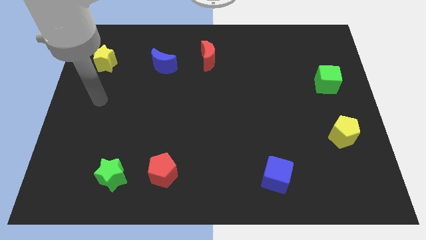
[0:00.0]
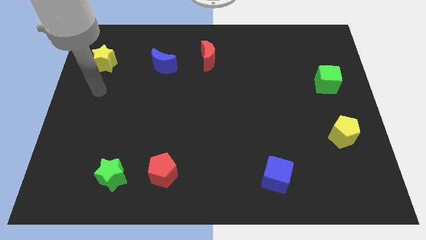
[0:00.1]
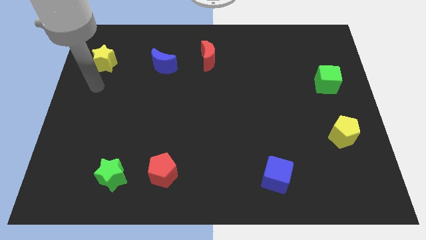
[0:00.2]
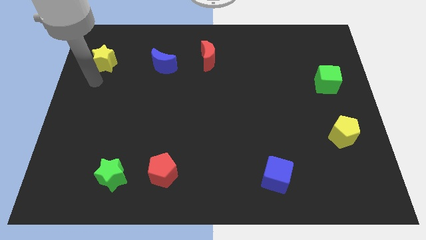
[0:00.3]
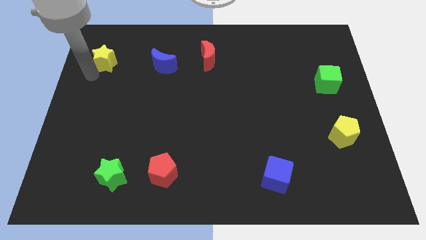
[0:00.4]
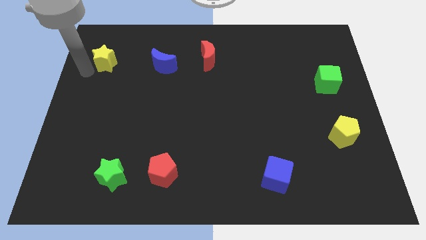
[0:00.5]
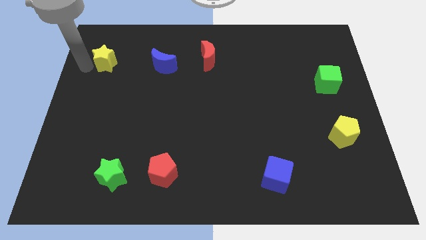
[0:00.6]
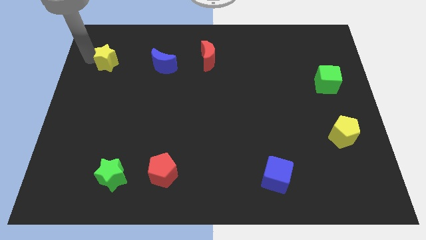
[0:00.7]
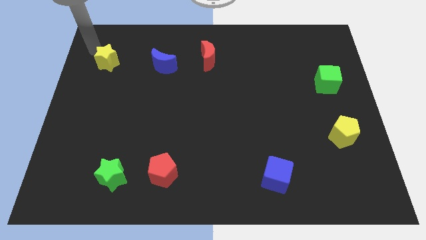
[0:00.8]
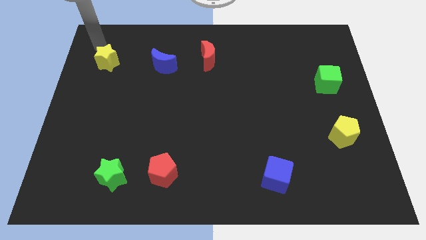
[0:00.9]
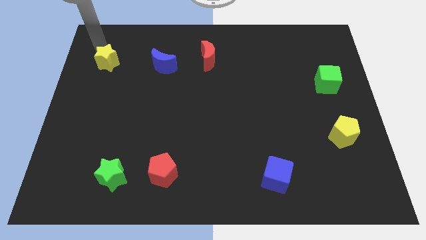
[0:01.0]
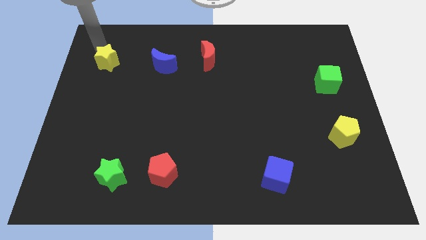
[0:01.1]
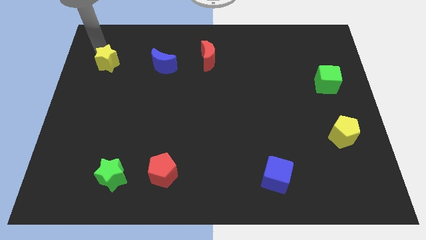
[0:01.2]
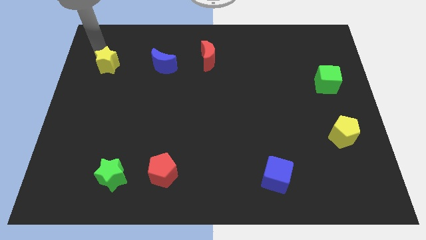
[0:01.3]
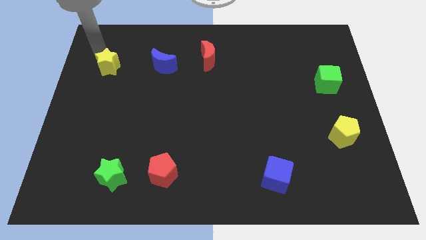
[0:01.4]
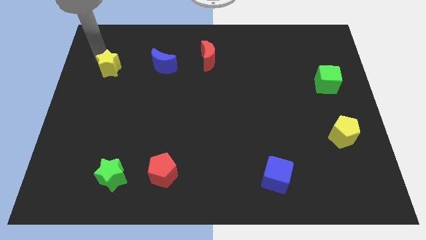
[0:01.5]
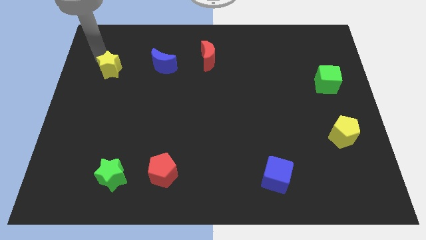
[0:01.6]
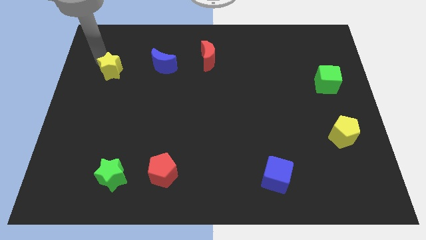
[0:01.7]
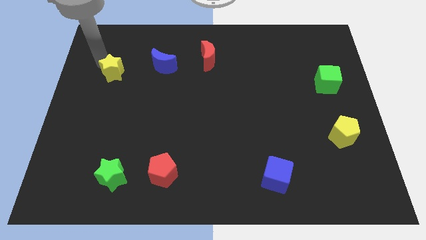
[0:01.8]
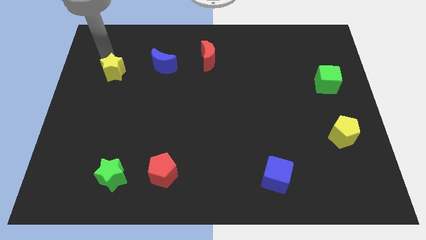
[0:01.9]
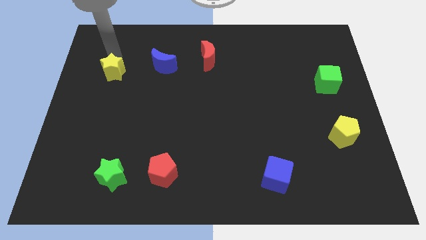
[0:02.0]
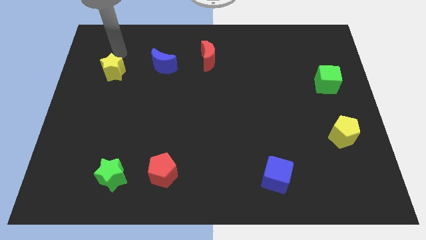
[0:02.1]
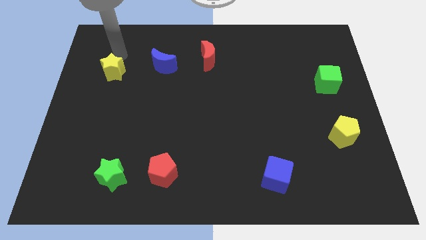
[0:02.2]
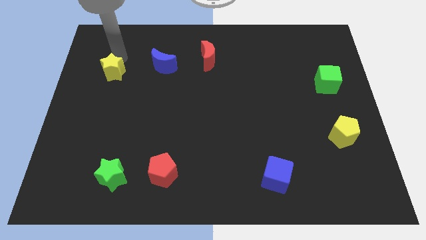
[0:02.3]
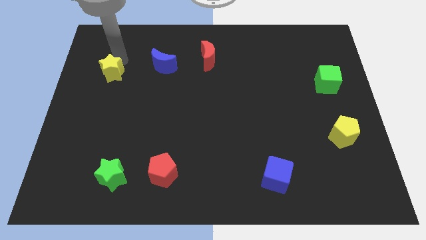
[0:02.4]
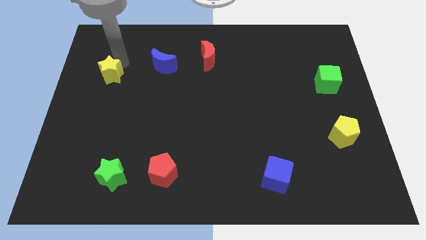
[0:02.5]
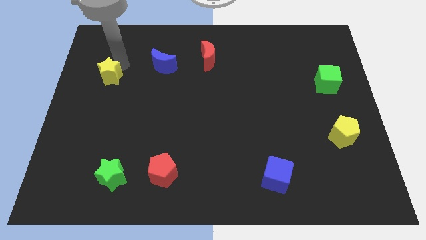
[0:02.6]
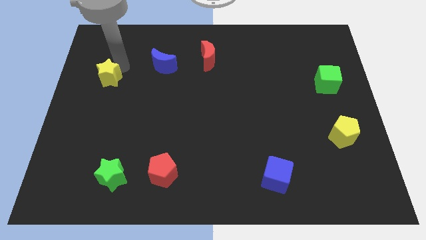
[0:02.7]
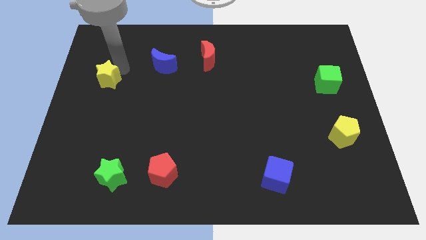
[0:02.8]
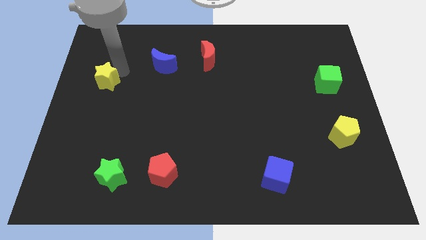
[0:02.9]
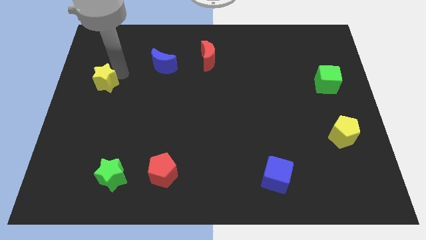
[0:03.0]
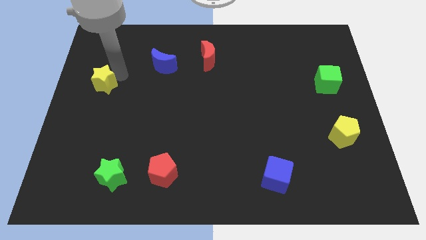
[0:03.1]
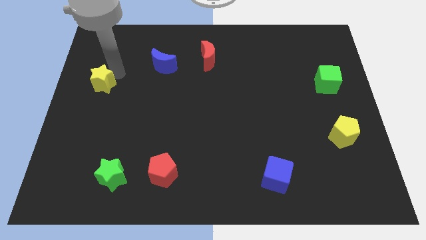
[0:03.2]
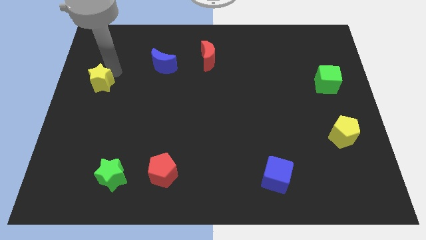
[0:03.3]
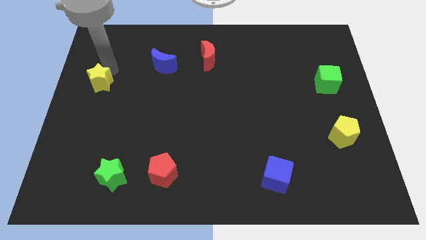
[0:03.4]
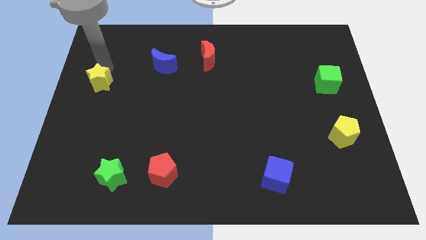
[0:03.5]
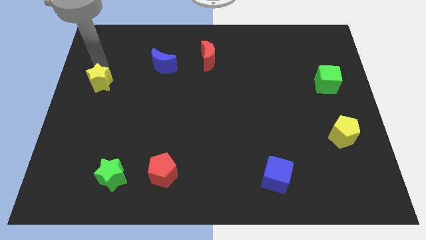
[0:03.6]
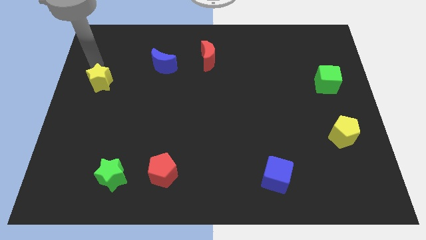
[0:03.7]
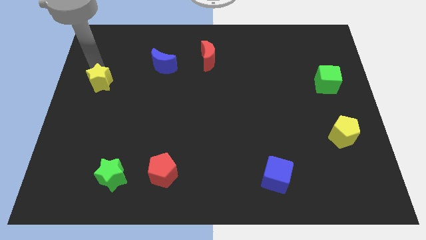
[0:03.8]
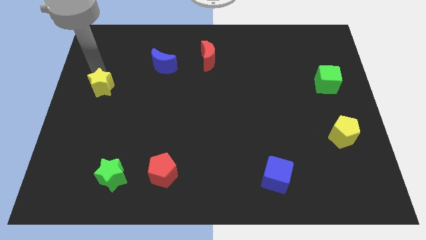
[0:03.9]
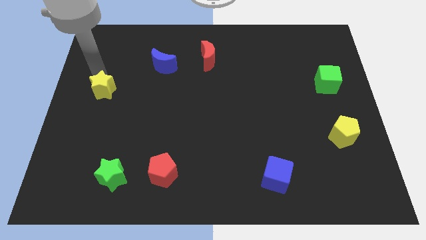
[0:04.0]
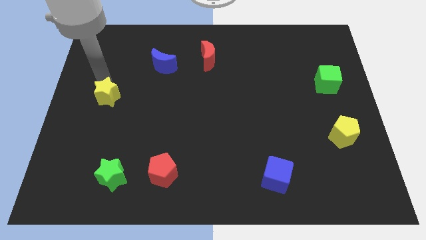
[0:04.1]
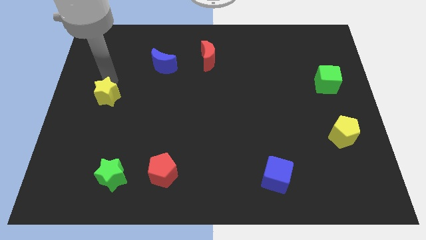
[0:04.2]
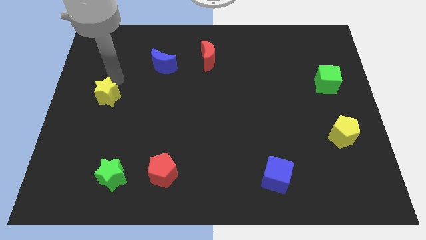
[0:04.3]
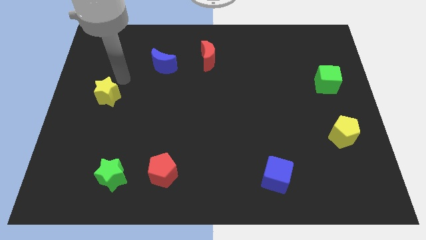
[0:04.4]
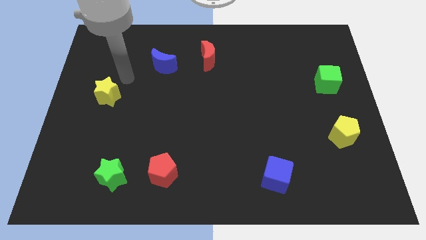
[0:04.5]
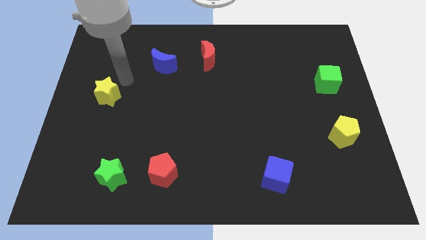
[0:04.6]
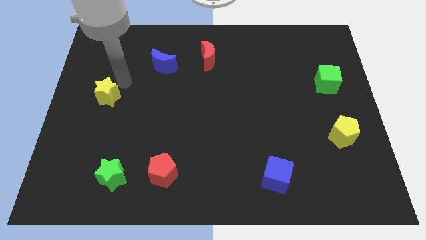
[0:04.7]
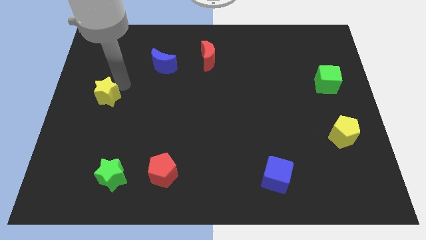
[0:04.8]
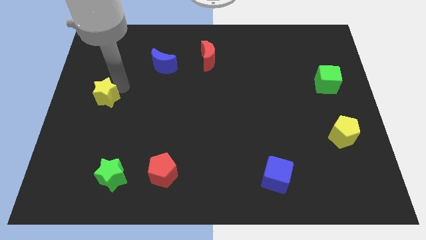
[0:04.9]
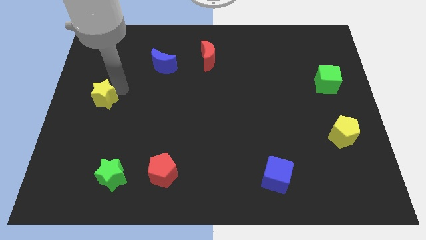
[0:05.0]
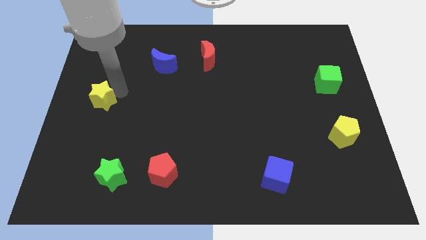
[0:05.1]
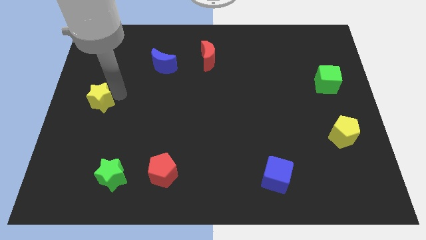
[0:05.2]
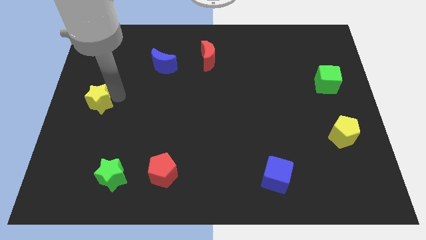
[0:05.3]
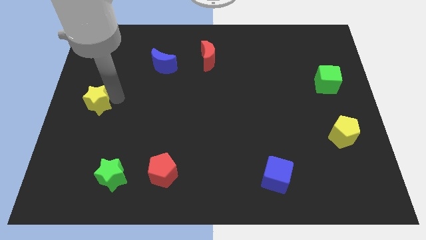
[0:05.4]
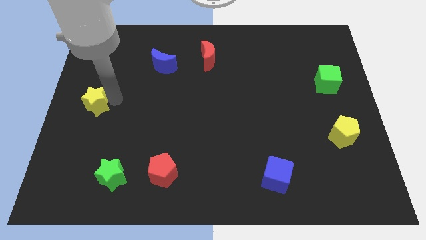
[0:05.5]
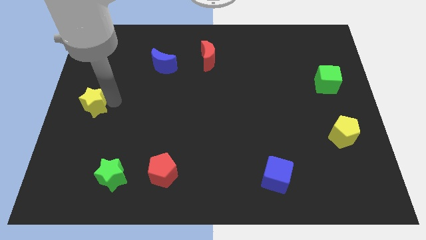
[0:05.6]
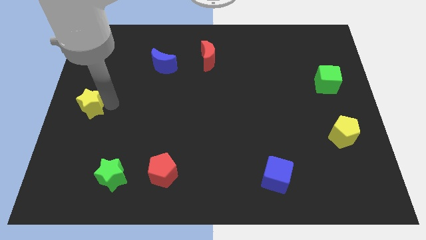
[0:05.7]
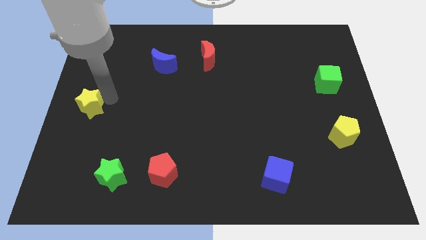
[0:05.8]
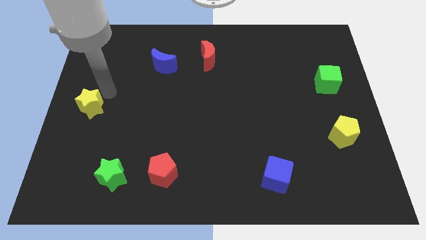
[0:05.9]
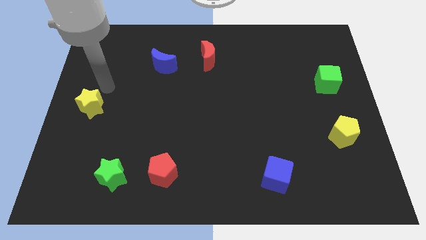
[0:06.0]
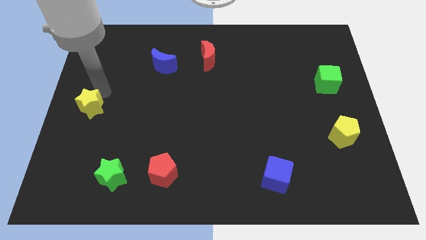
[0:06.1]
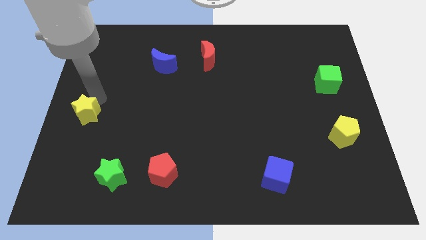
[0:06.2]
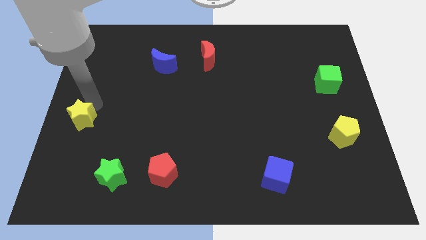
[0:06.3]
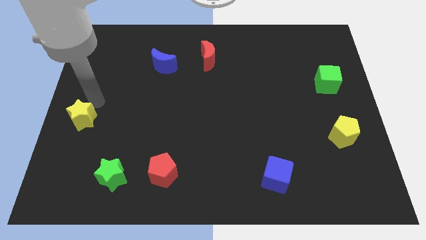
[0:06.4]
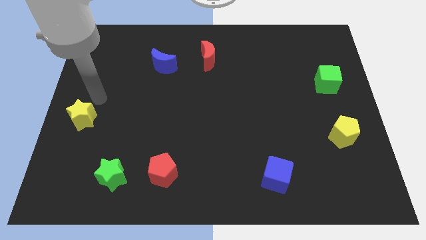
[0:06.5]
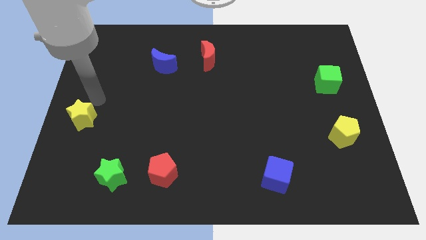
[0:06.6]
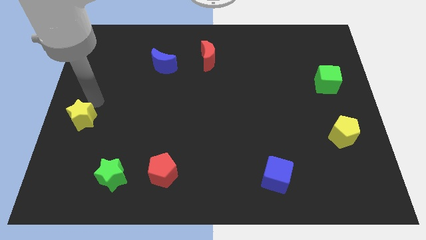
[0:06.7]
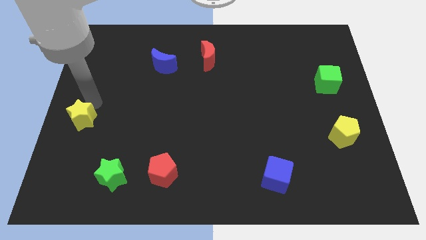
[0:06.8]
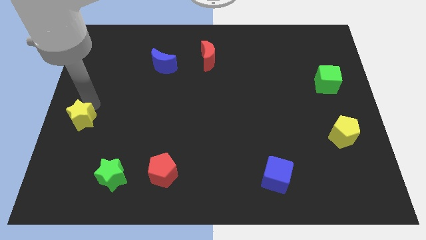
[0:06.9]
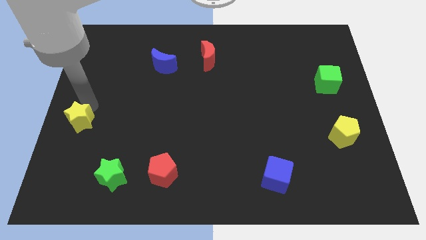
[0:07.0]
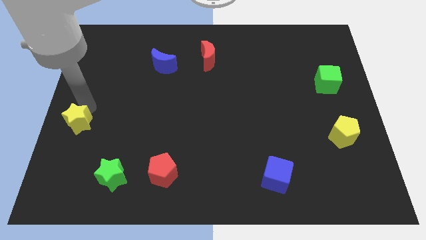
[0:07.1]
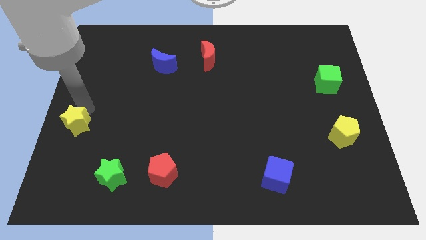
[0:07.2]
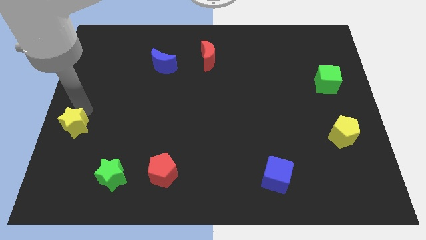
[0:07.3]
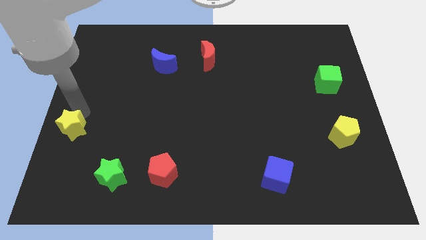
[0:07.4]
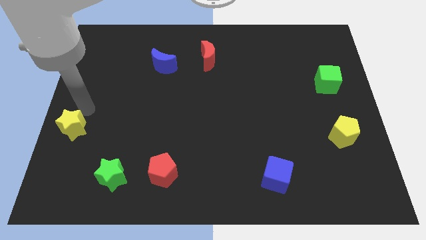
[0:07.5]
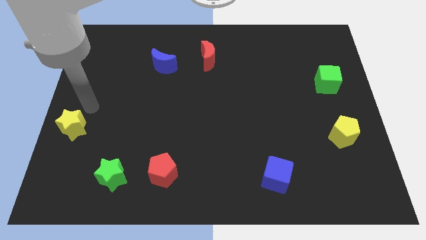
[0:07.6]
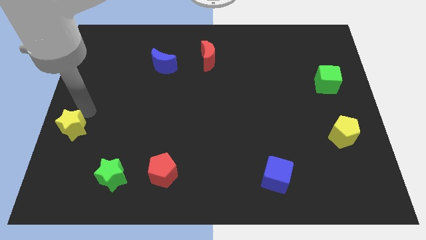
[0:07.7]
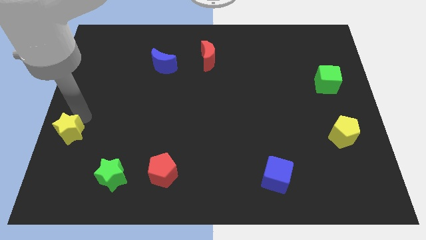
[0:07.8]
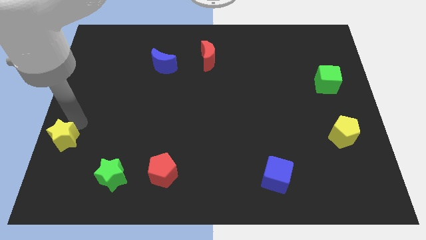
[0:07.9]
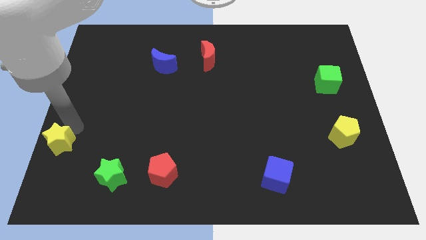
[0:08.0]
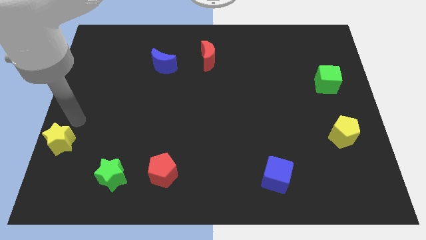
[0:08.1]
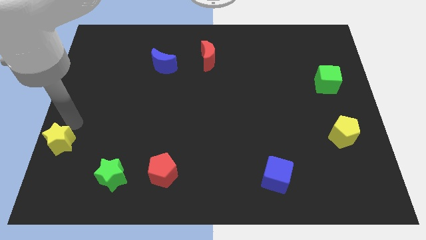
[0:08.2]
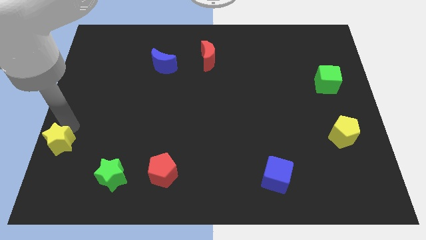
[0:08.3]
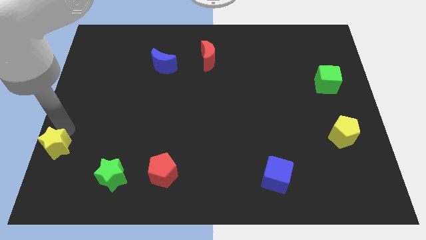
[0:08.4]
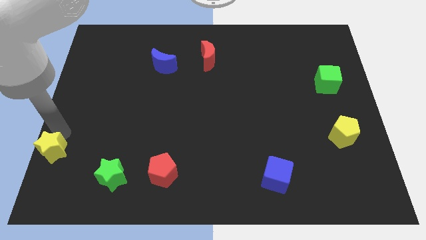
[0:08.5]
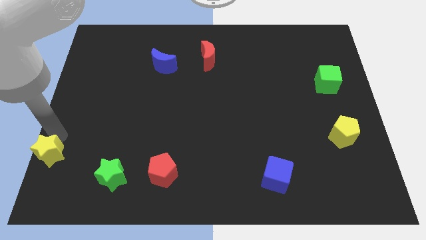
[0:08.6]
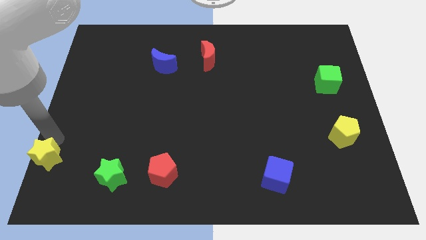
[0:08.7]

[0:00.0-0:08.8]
push the yellow star to the bottom left of the board
